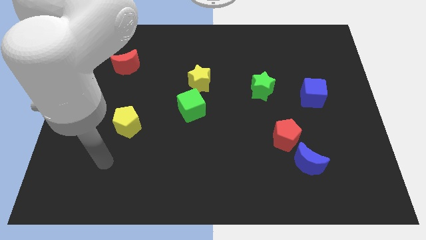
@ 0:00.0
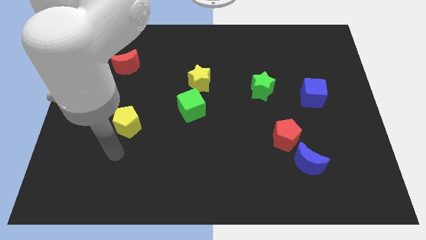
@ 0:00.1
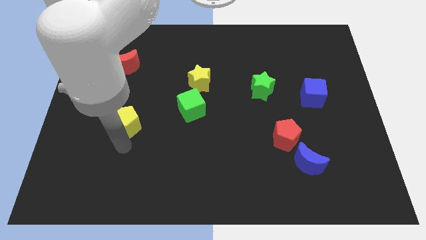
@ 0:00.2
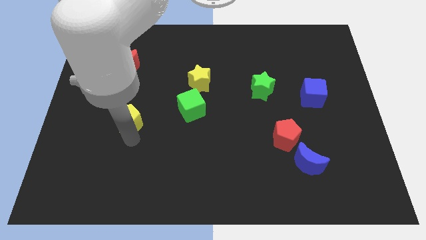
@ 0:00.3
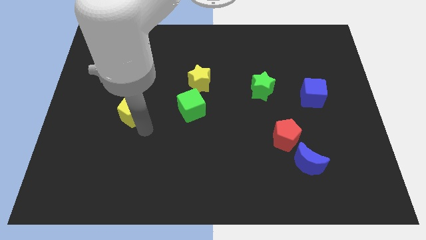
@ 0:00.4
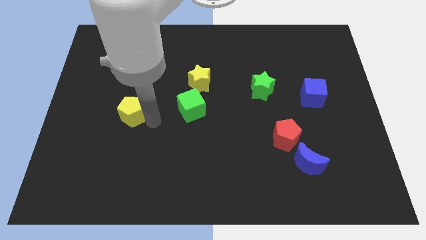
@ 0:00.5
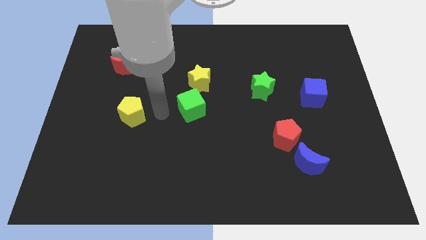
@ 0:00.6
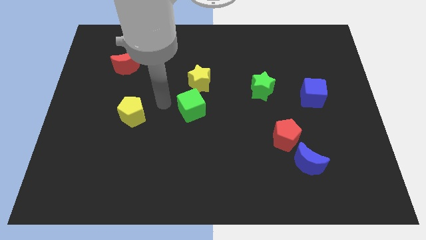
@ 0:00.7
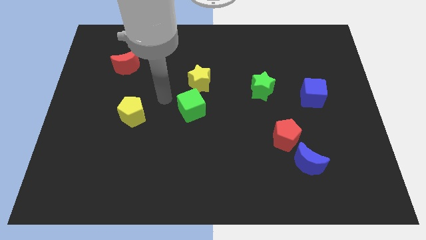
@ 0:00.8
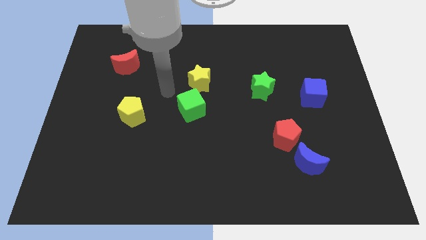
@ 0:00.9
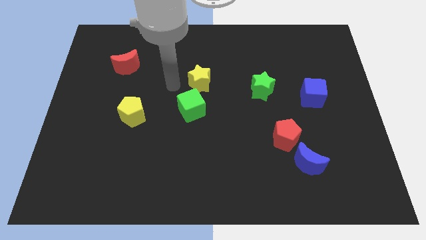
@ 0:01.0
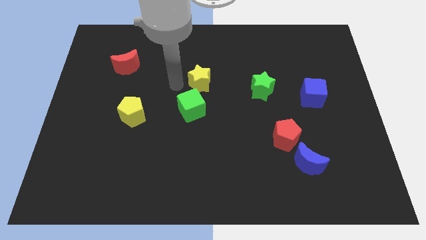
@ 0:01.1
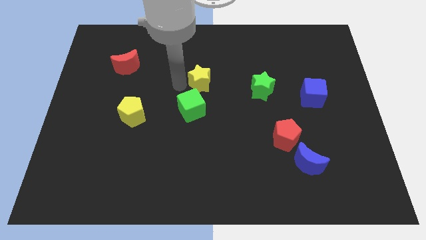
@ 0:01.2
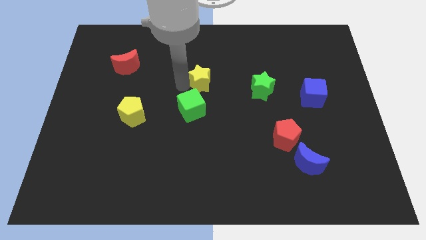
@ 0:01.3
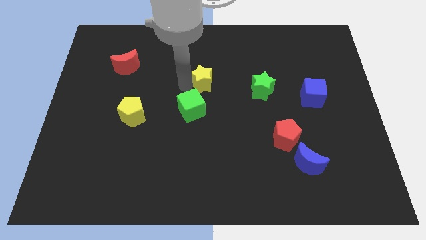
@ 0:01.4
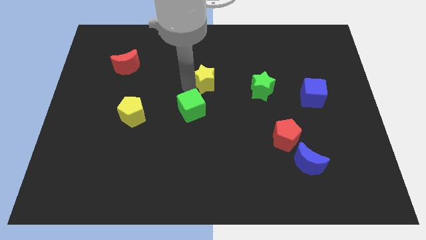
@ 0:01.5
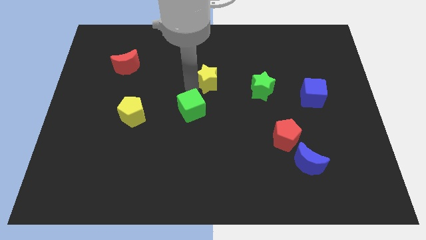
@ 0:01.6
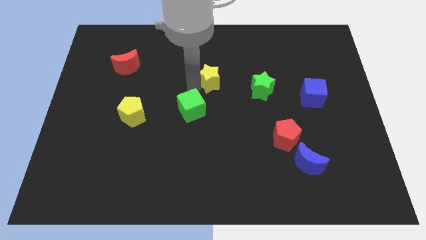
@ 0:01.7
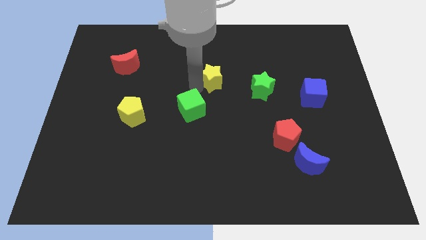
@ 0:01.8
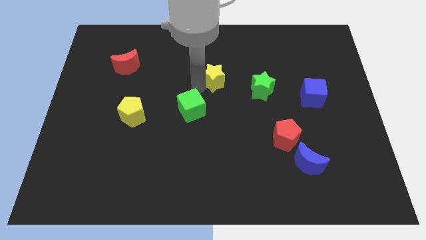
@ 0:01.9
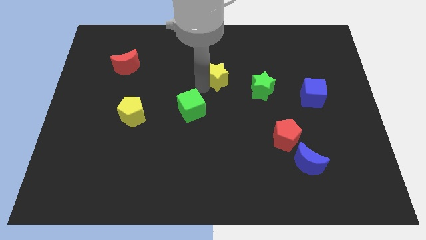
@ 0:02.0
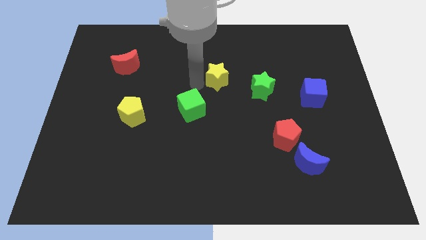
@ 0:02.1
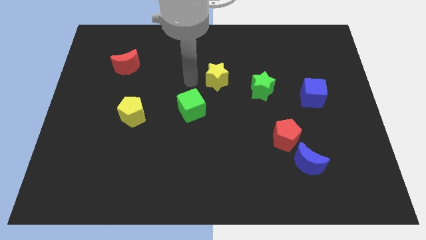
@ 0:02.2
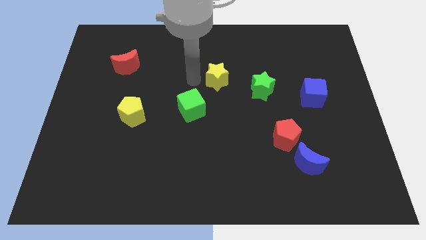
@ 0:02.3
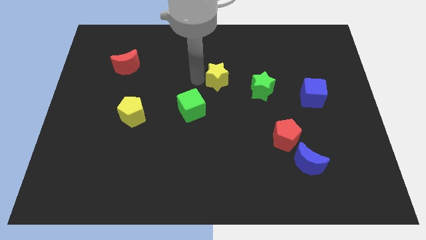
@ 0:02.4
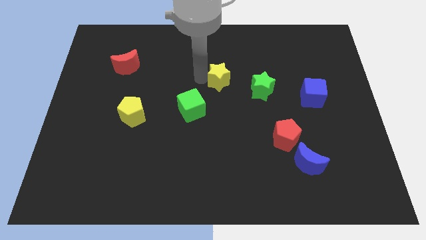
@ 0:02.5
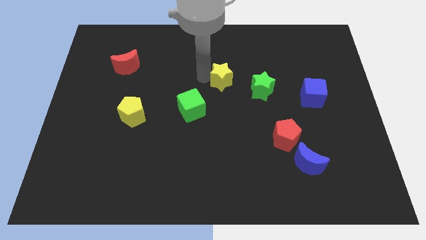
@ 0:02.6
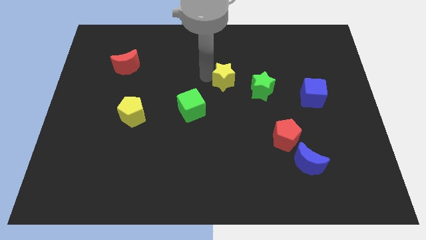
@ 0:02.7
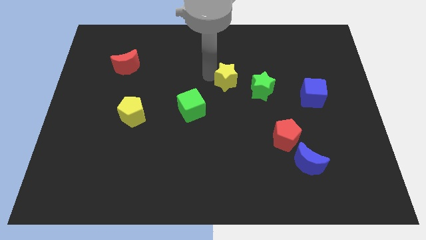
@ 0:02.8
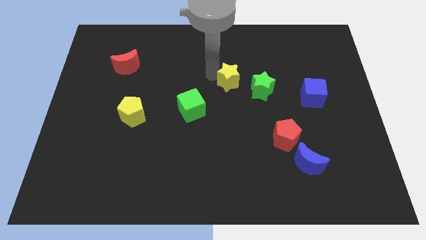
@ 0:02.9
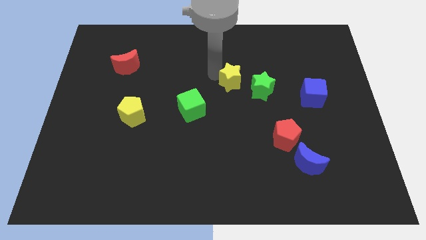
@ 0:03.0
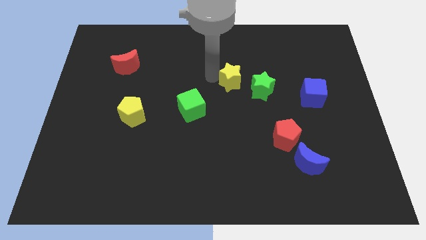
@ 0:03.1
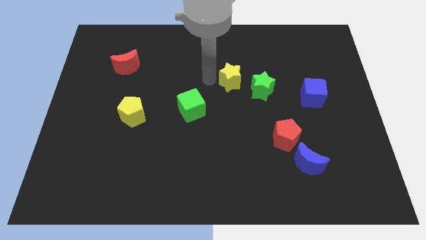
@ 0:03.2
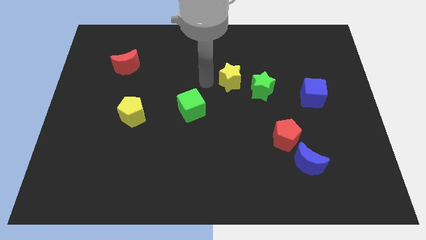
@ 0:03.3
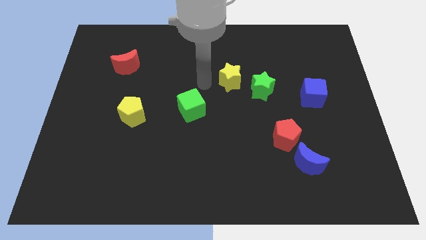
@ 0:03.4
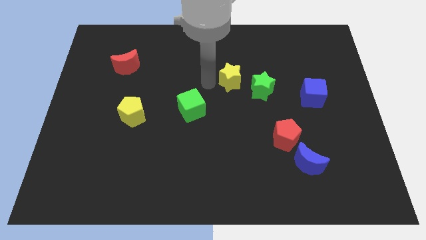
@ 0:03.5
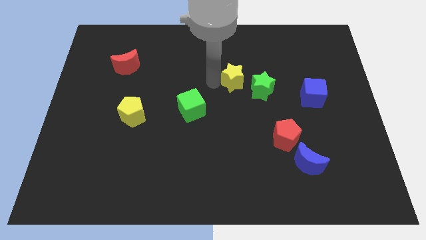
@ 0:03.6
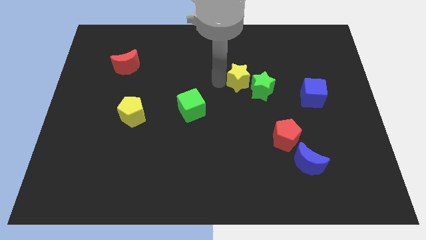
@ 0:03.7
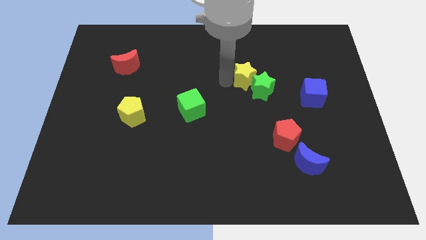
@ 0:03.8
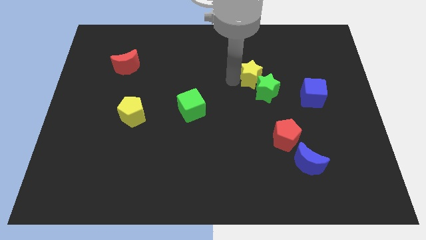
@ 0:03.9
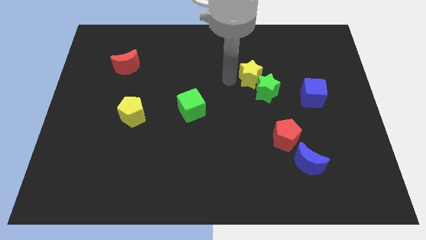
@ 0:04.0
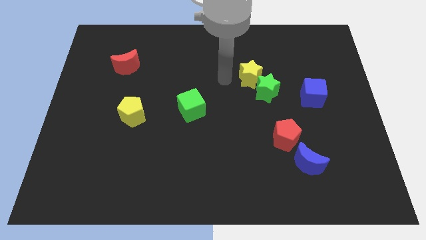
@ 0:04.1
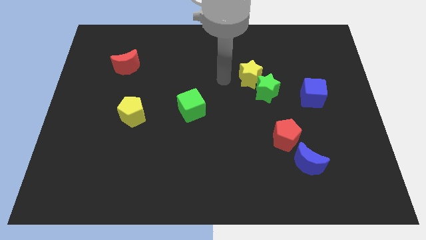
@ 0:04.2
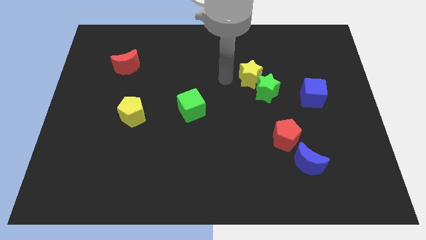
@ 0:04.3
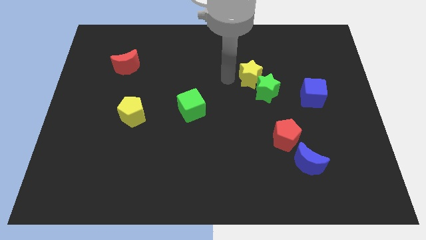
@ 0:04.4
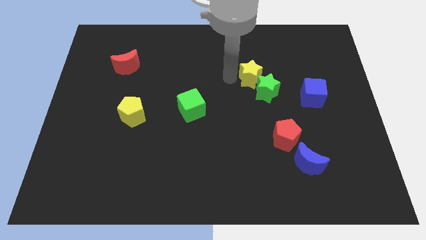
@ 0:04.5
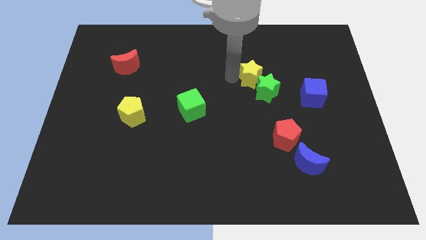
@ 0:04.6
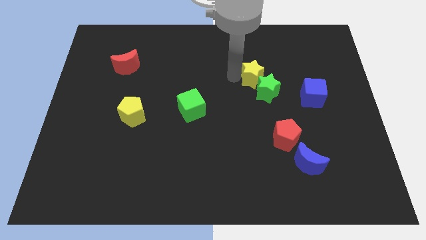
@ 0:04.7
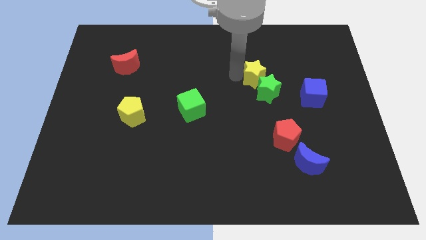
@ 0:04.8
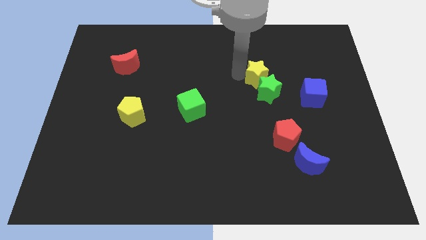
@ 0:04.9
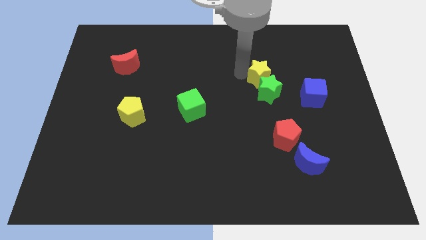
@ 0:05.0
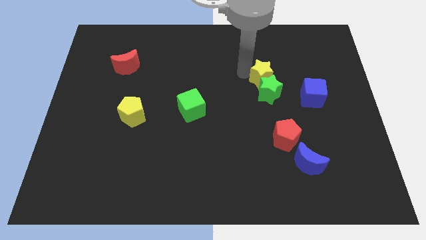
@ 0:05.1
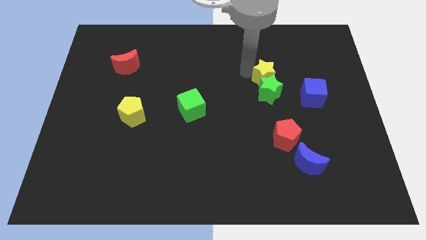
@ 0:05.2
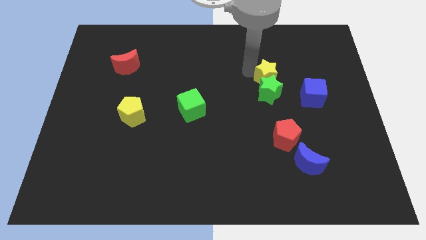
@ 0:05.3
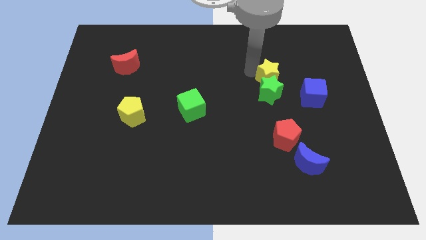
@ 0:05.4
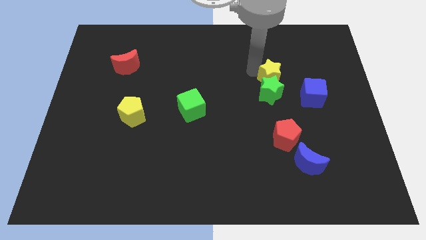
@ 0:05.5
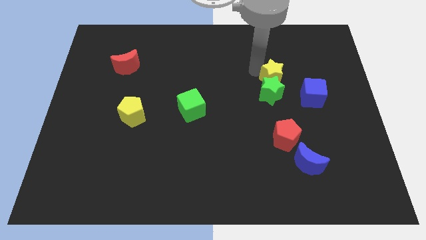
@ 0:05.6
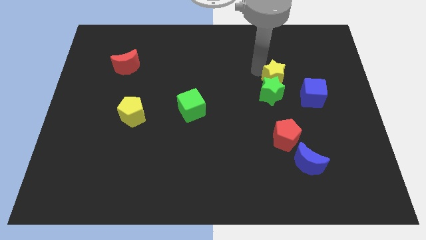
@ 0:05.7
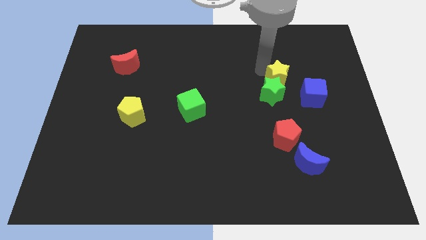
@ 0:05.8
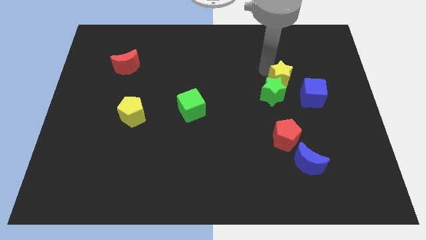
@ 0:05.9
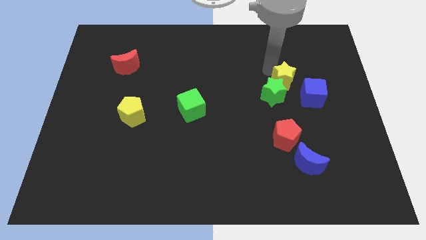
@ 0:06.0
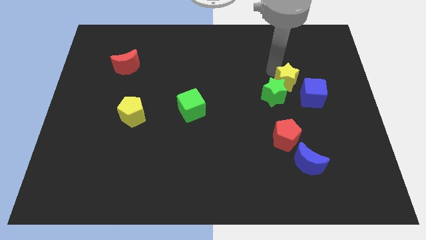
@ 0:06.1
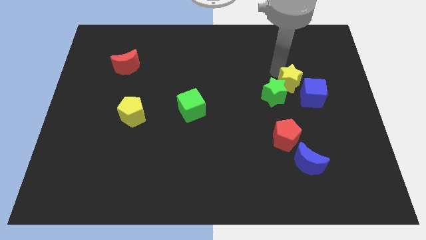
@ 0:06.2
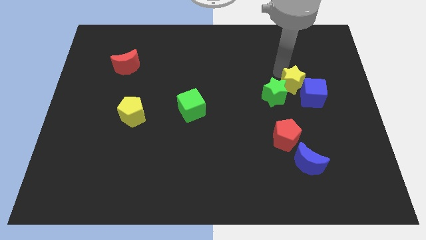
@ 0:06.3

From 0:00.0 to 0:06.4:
move the yellow star close to the blue cube

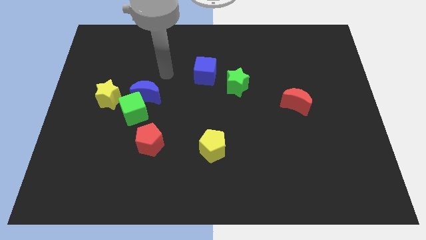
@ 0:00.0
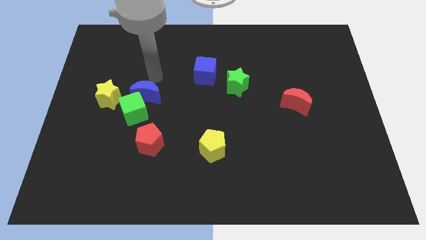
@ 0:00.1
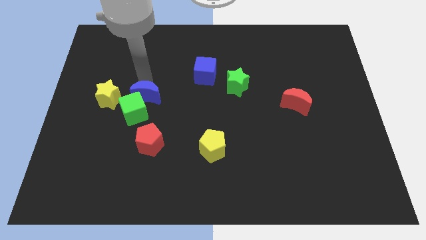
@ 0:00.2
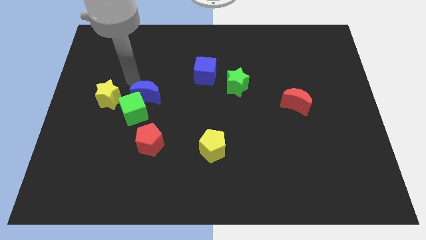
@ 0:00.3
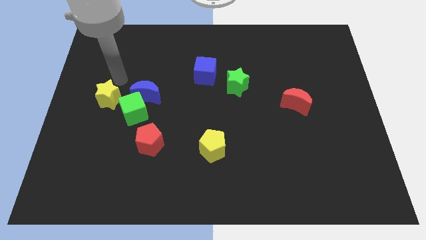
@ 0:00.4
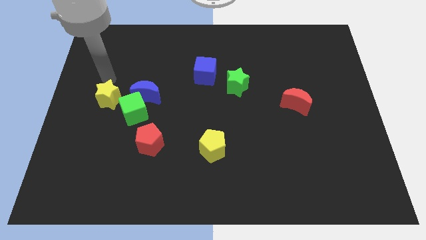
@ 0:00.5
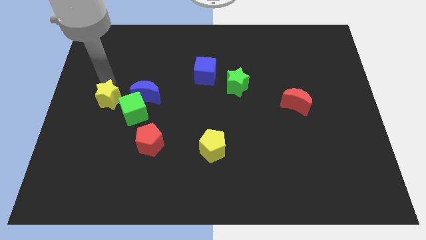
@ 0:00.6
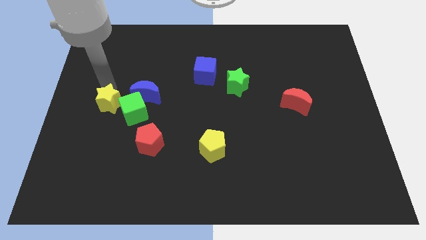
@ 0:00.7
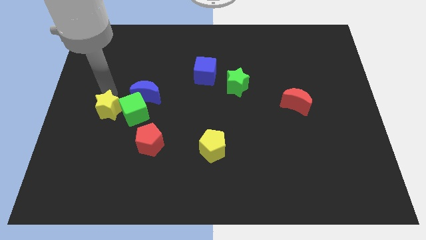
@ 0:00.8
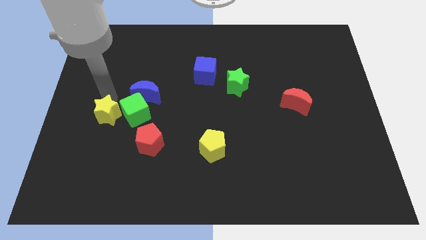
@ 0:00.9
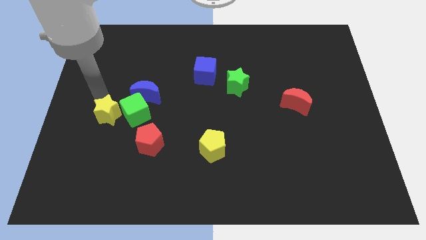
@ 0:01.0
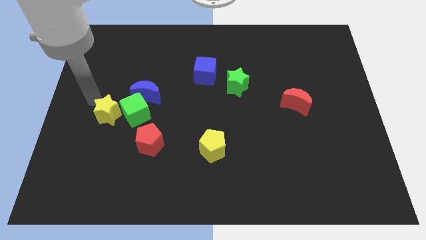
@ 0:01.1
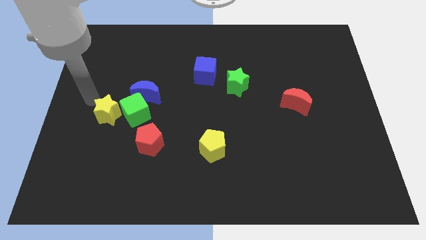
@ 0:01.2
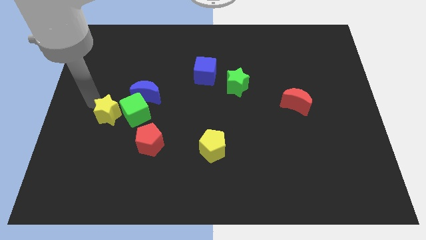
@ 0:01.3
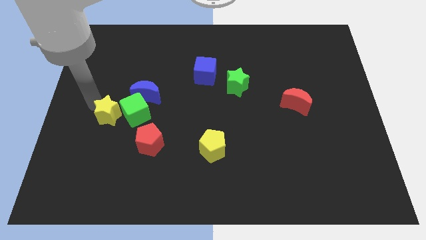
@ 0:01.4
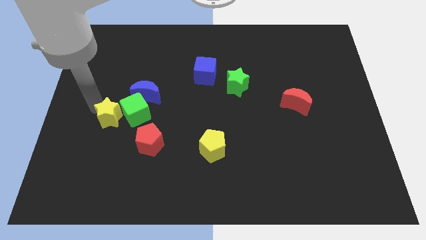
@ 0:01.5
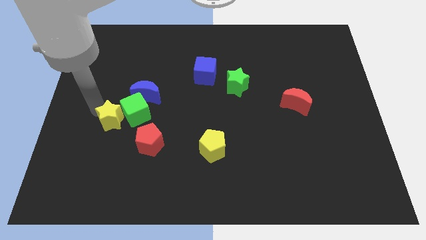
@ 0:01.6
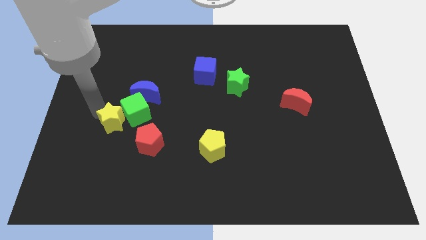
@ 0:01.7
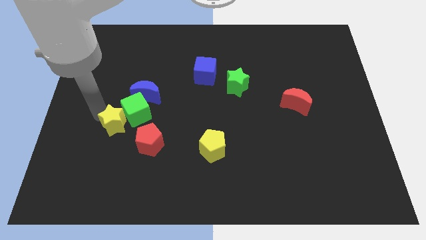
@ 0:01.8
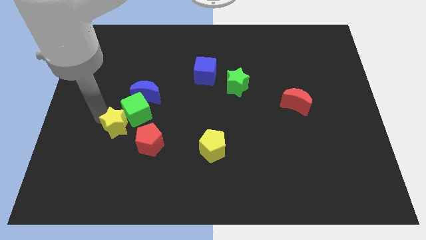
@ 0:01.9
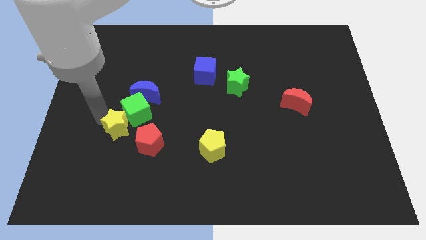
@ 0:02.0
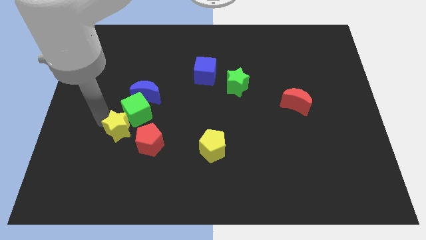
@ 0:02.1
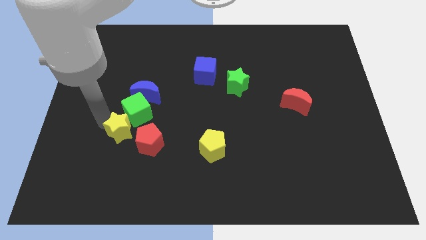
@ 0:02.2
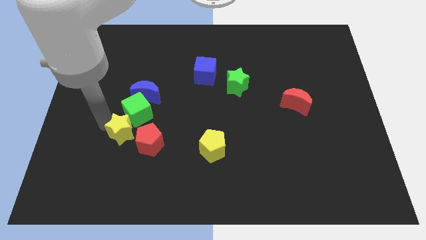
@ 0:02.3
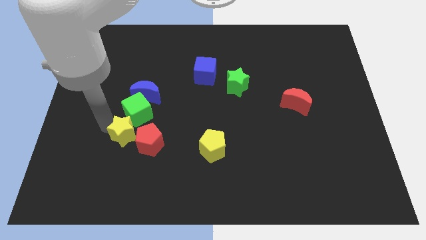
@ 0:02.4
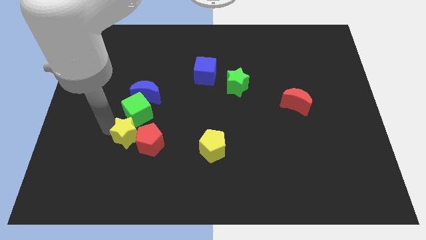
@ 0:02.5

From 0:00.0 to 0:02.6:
slide the yellow star to the red pentagon
